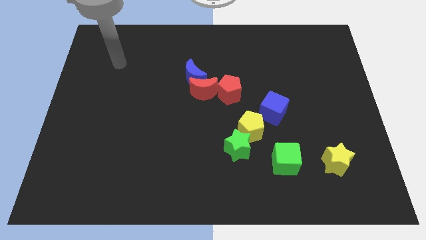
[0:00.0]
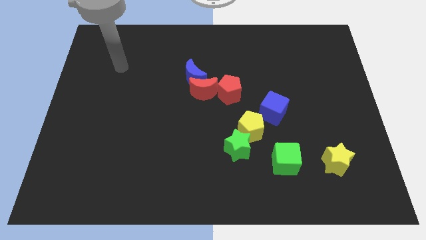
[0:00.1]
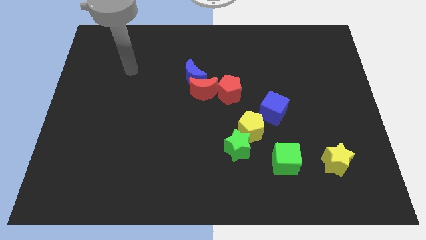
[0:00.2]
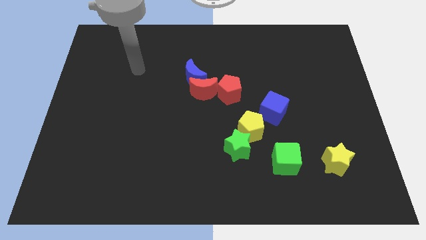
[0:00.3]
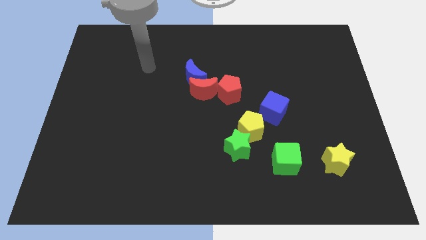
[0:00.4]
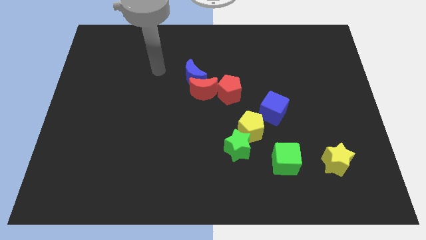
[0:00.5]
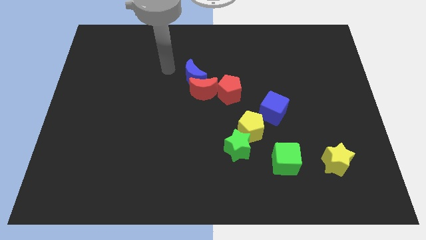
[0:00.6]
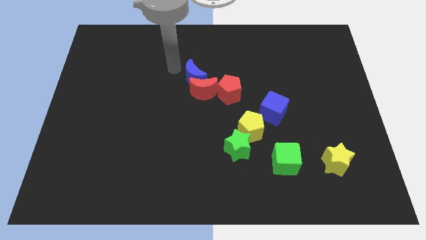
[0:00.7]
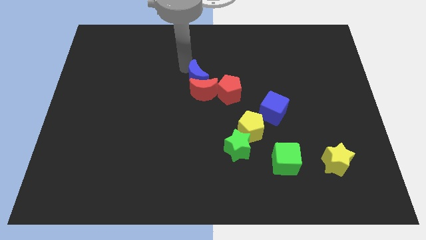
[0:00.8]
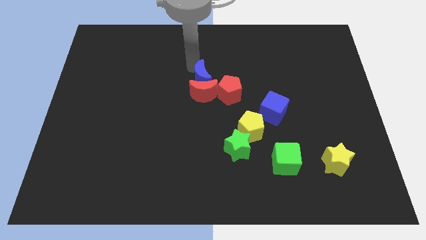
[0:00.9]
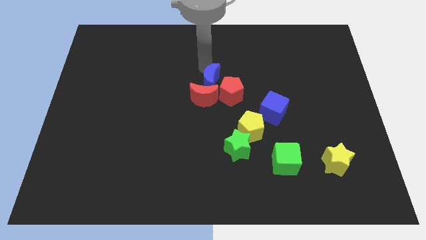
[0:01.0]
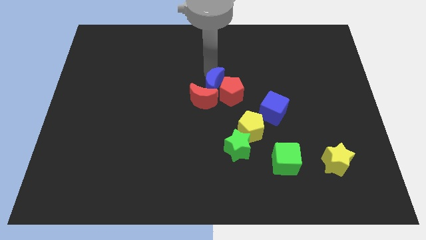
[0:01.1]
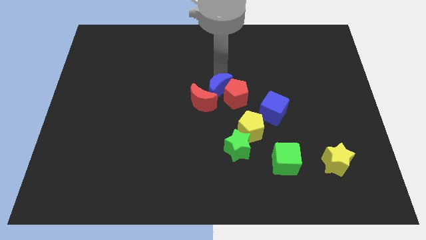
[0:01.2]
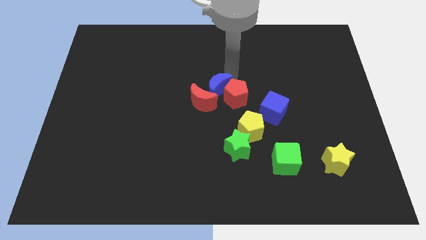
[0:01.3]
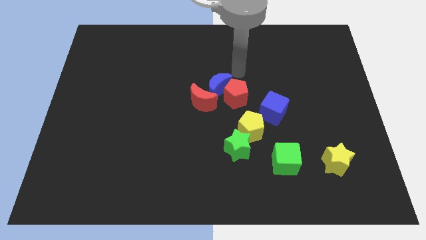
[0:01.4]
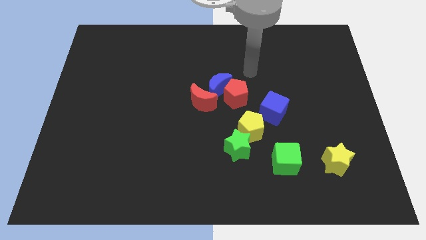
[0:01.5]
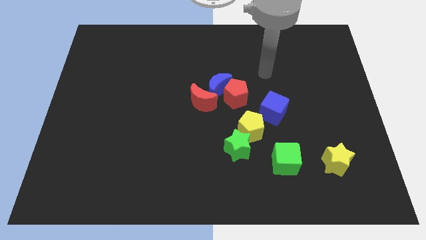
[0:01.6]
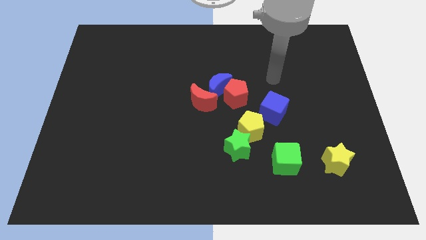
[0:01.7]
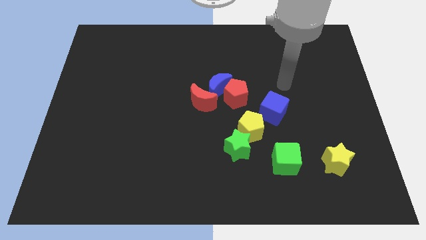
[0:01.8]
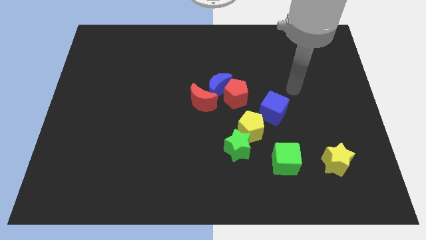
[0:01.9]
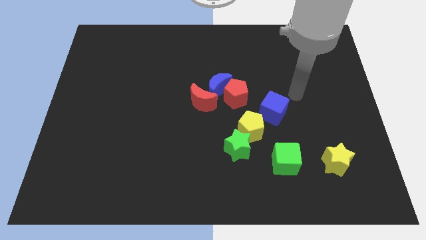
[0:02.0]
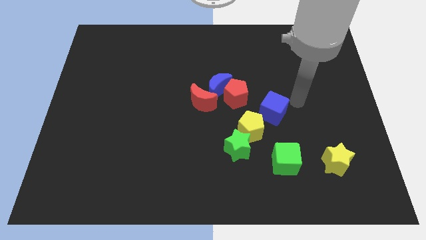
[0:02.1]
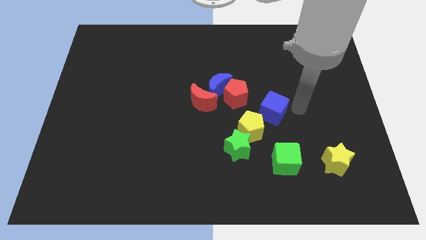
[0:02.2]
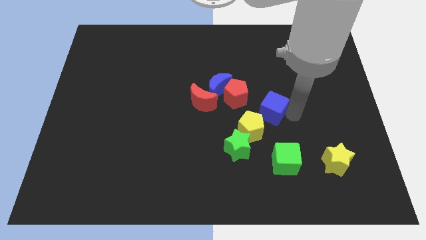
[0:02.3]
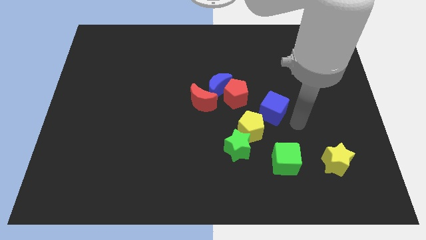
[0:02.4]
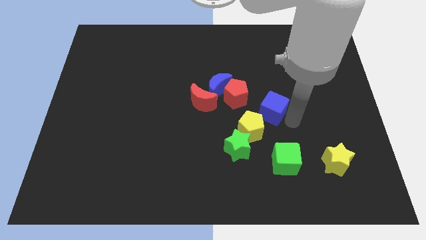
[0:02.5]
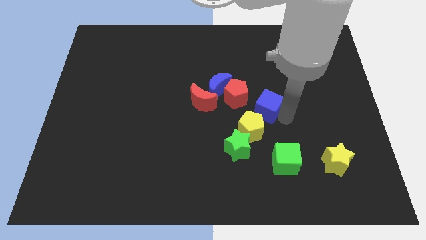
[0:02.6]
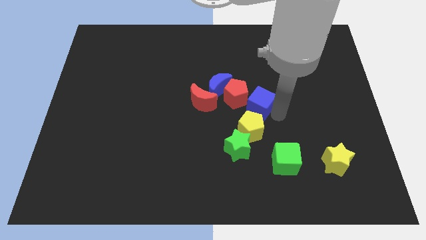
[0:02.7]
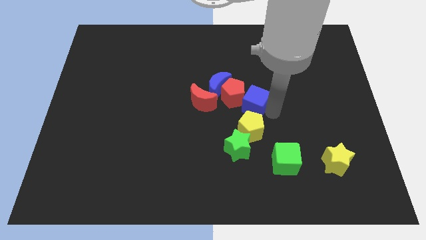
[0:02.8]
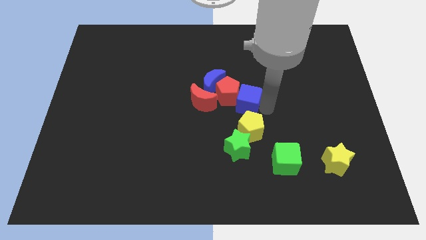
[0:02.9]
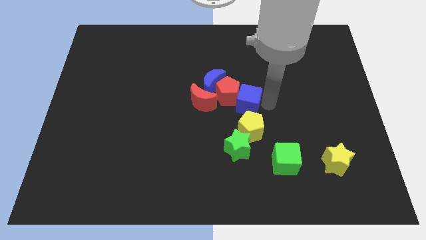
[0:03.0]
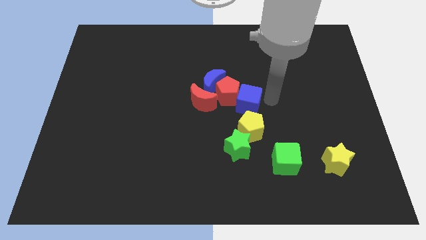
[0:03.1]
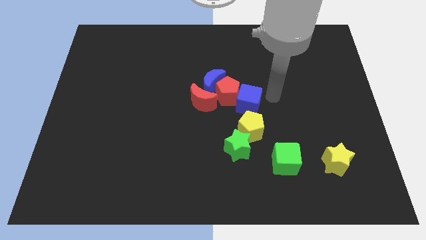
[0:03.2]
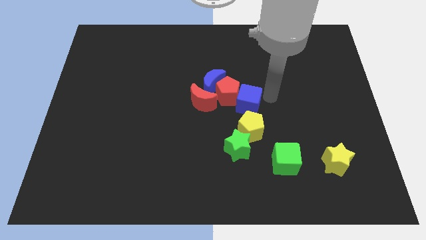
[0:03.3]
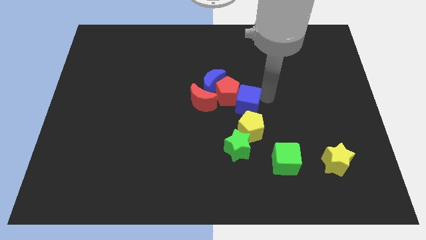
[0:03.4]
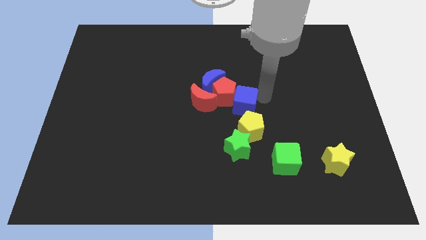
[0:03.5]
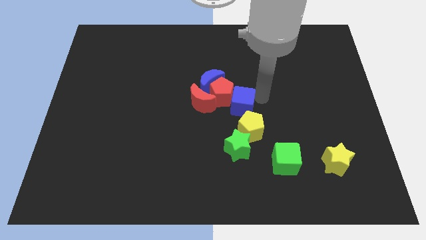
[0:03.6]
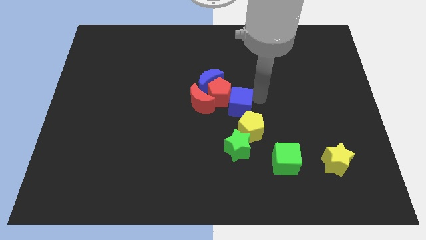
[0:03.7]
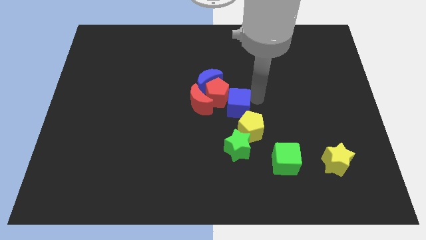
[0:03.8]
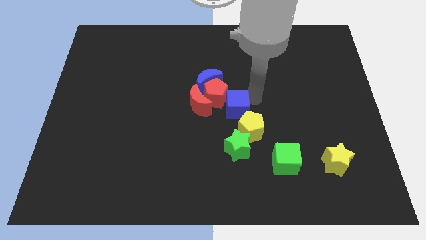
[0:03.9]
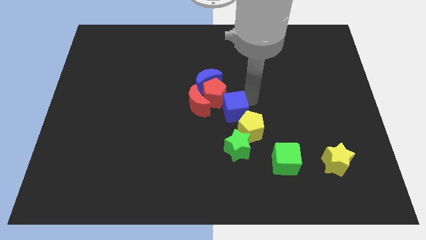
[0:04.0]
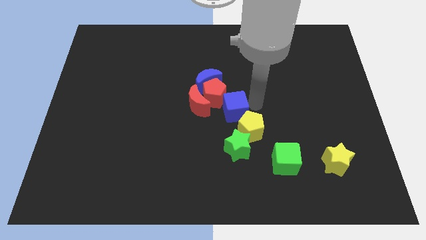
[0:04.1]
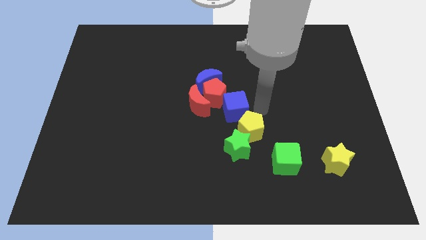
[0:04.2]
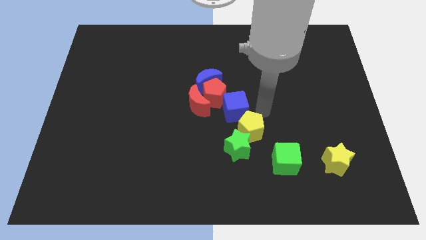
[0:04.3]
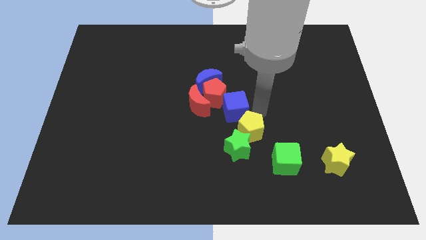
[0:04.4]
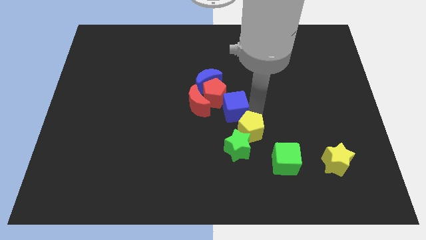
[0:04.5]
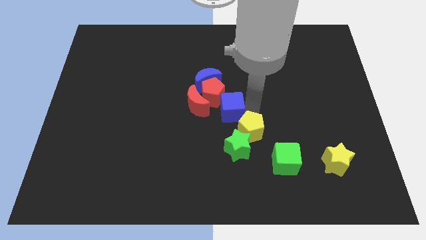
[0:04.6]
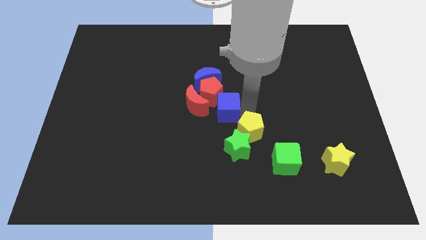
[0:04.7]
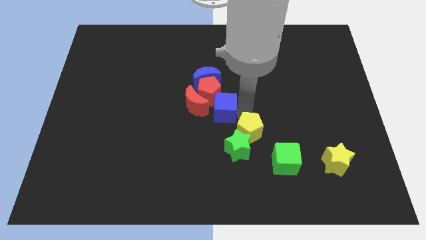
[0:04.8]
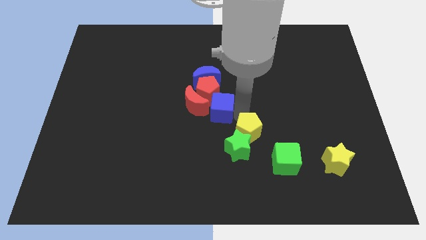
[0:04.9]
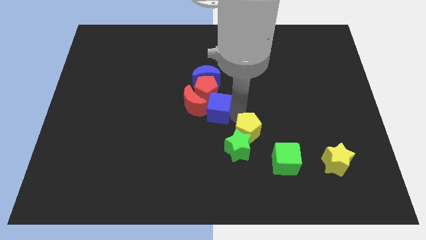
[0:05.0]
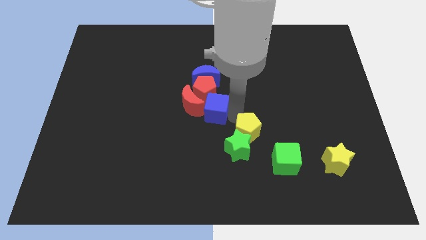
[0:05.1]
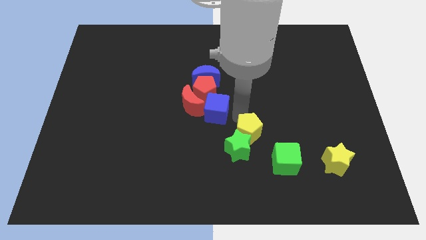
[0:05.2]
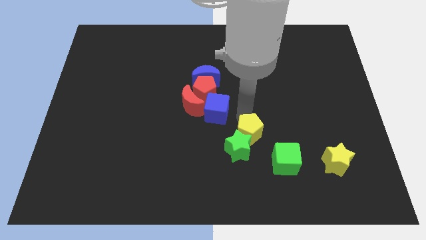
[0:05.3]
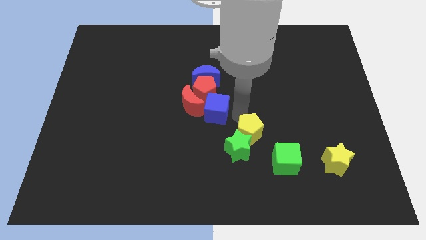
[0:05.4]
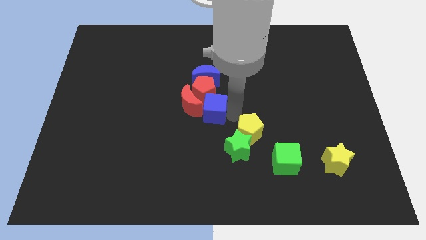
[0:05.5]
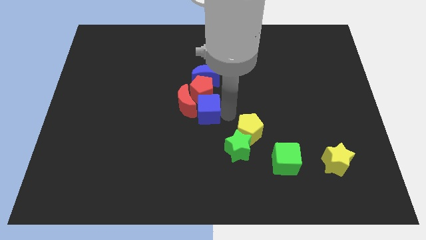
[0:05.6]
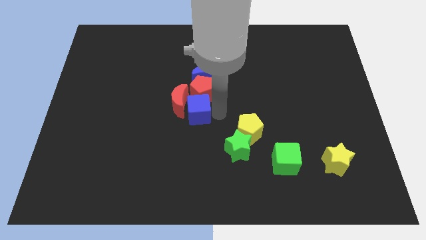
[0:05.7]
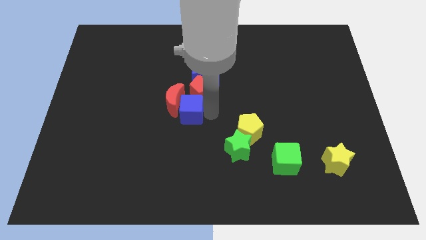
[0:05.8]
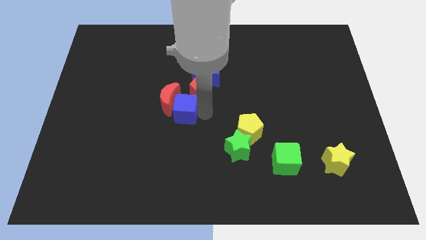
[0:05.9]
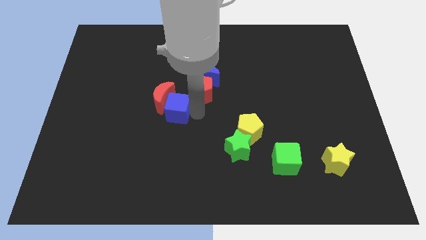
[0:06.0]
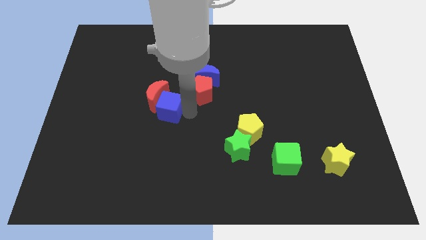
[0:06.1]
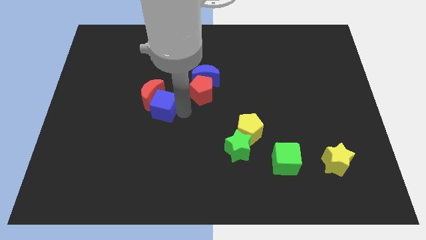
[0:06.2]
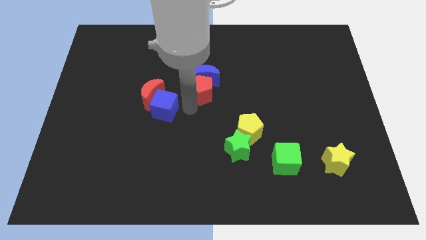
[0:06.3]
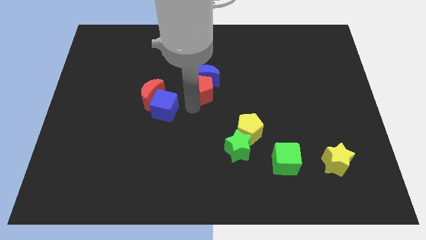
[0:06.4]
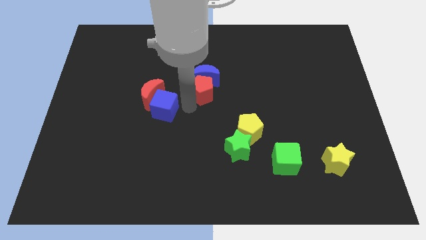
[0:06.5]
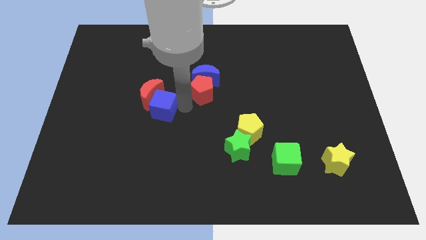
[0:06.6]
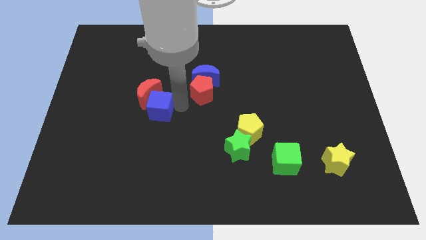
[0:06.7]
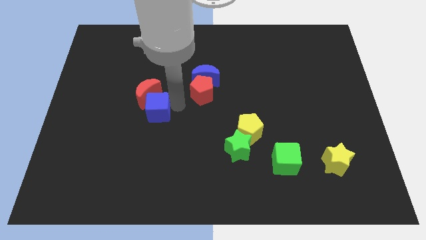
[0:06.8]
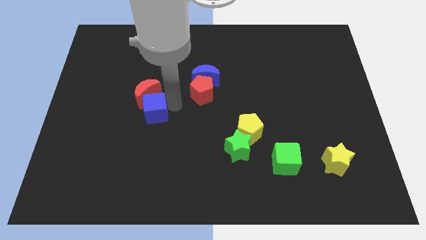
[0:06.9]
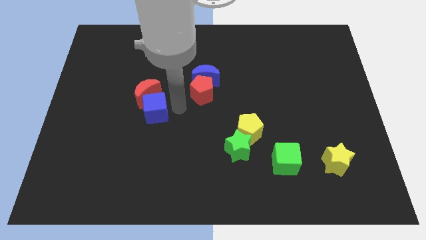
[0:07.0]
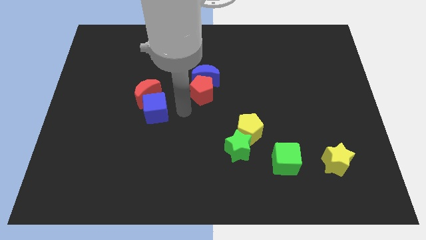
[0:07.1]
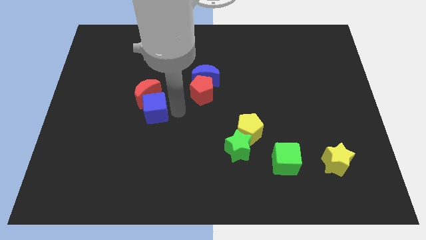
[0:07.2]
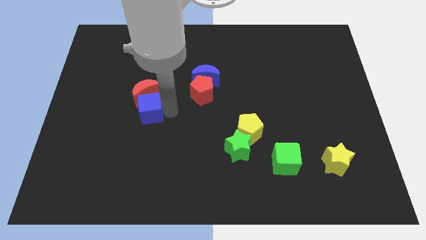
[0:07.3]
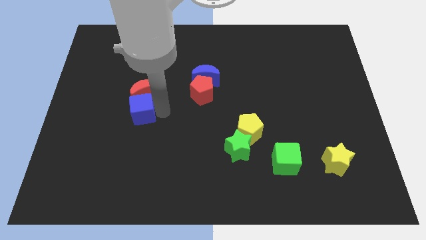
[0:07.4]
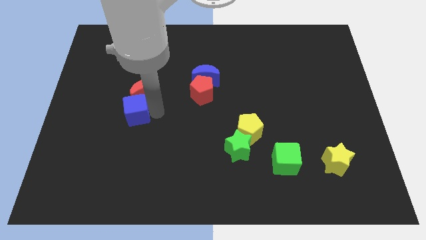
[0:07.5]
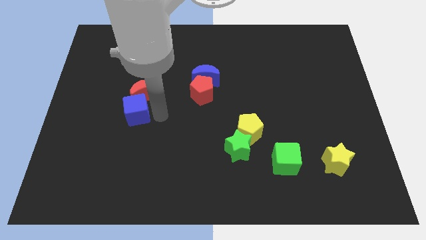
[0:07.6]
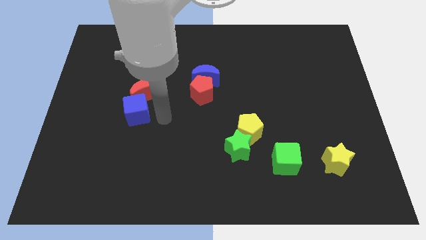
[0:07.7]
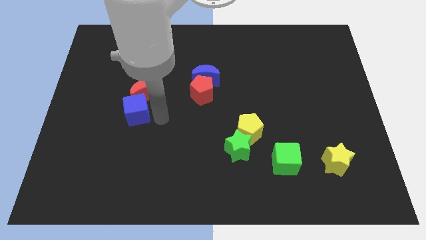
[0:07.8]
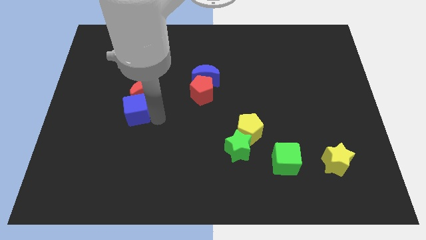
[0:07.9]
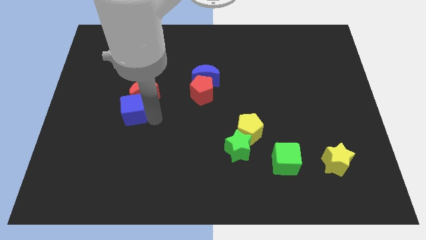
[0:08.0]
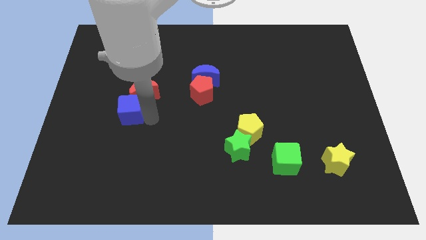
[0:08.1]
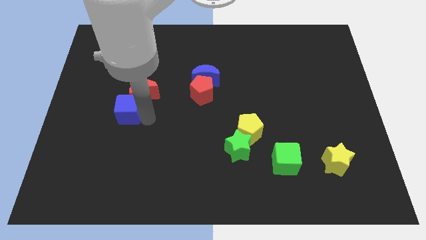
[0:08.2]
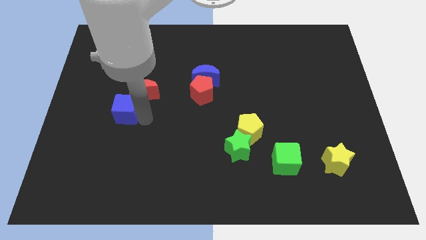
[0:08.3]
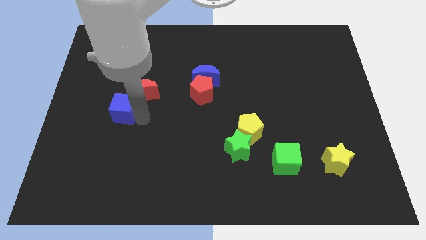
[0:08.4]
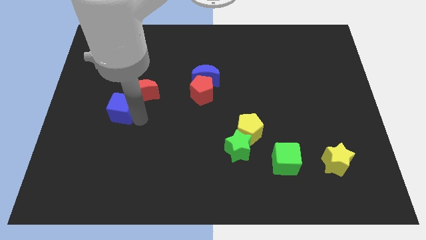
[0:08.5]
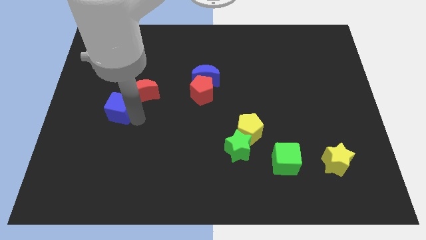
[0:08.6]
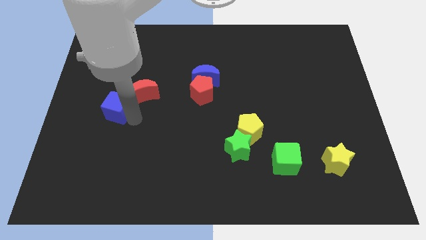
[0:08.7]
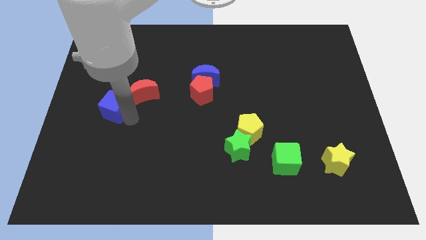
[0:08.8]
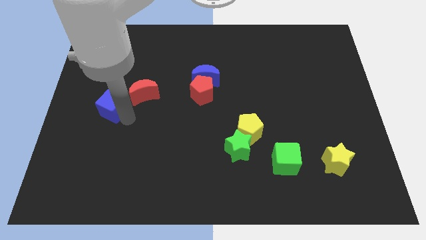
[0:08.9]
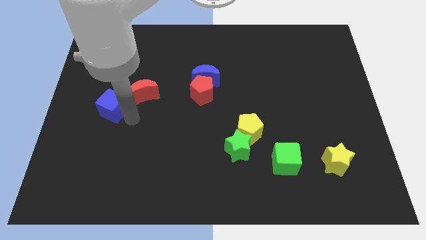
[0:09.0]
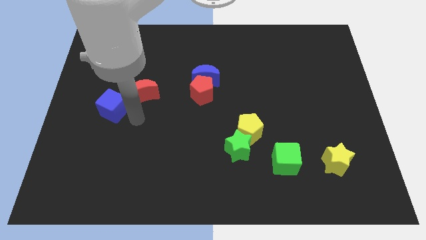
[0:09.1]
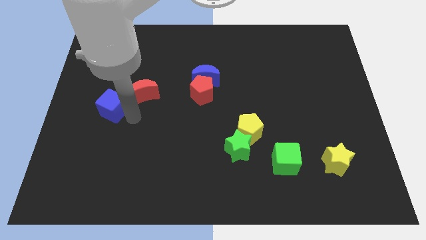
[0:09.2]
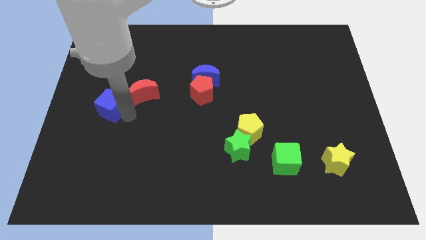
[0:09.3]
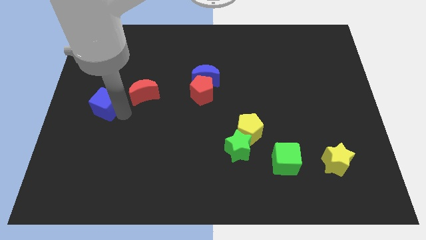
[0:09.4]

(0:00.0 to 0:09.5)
put the blue cube to the left side of the board
